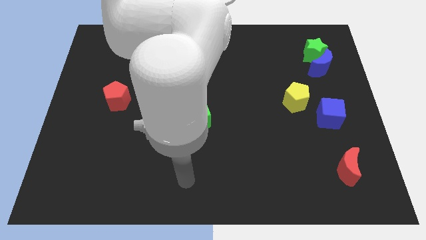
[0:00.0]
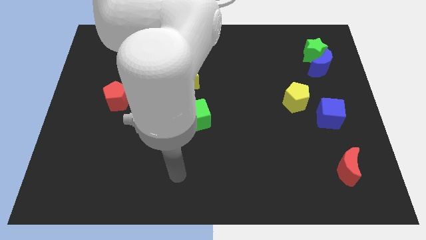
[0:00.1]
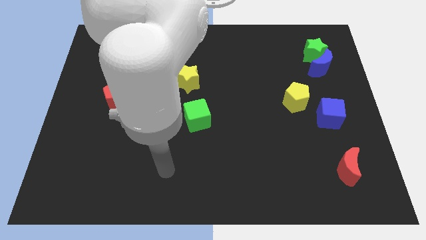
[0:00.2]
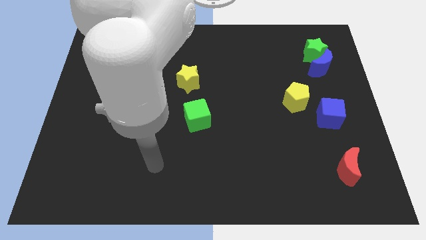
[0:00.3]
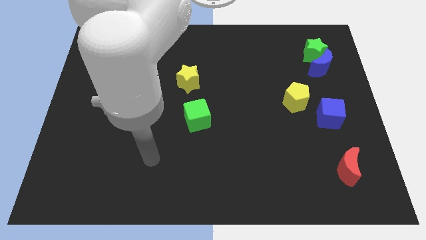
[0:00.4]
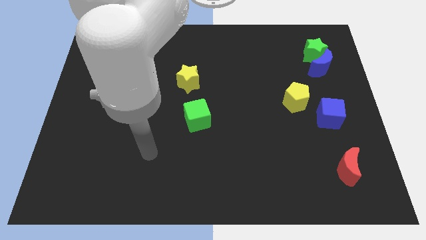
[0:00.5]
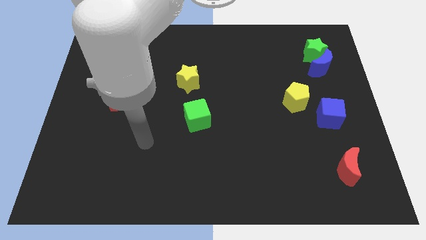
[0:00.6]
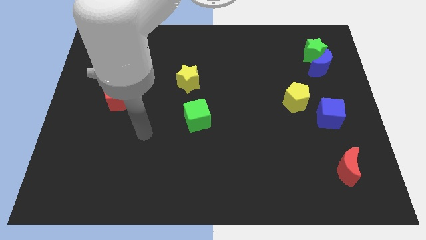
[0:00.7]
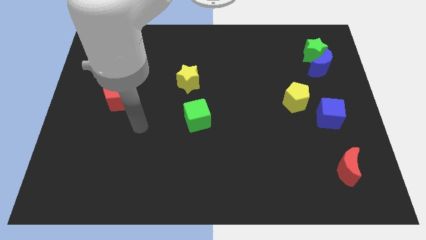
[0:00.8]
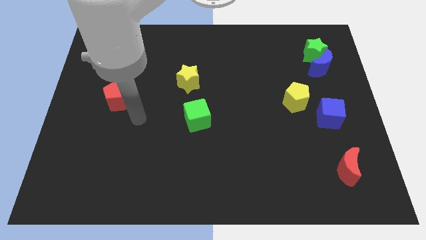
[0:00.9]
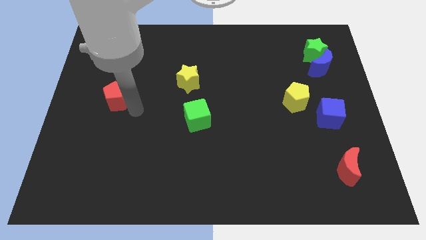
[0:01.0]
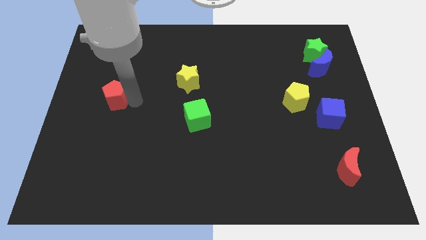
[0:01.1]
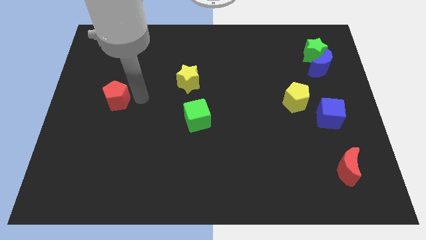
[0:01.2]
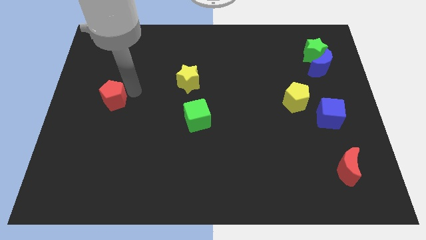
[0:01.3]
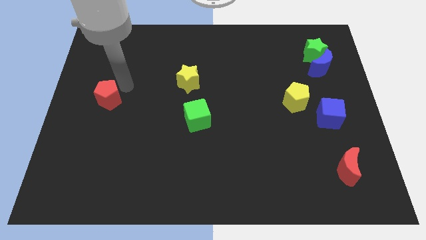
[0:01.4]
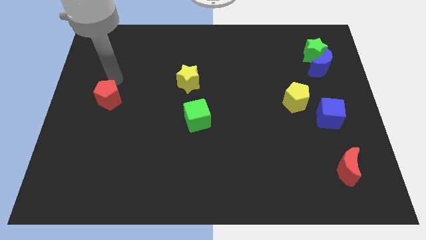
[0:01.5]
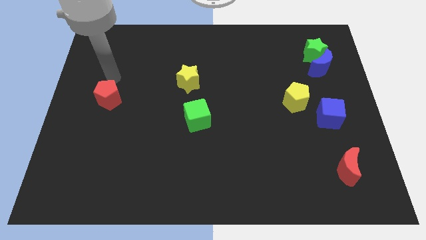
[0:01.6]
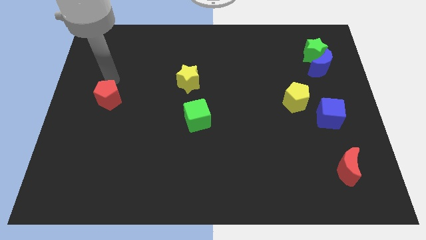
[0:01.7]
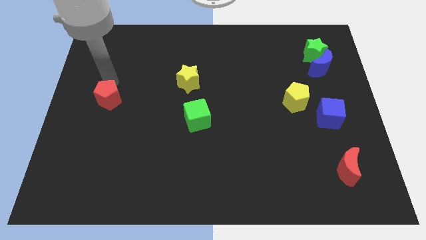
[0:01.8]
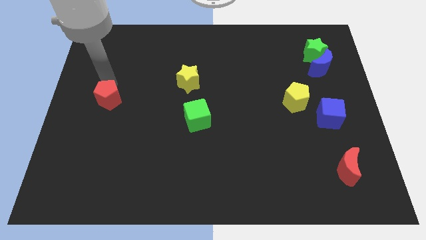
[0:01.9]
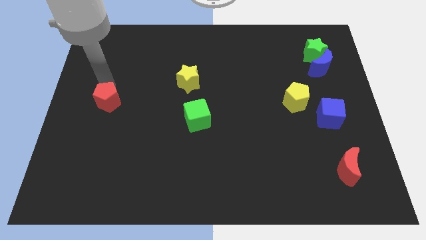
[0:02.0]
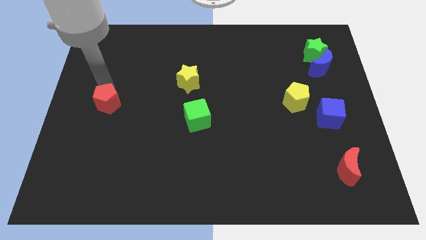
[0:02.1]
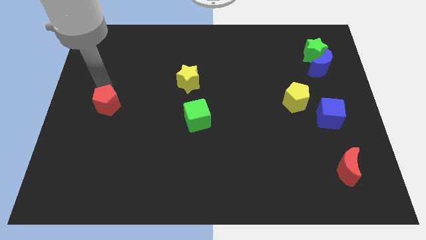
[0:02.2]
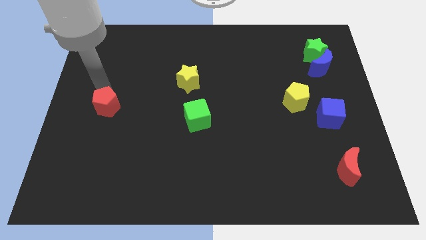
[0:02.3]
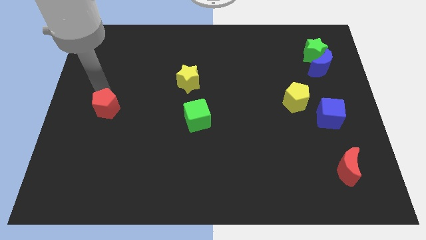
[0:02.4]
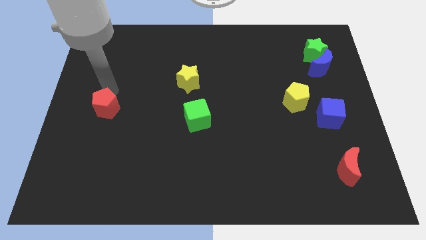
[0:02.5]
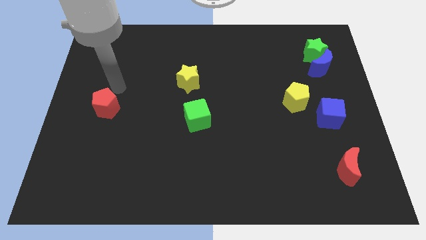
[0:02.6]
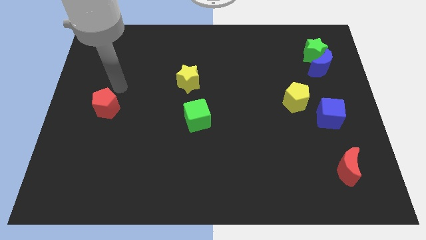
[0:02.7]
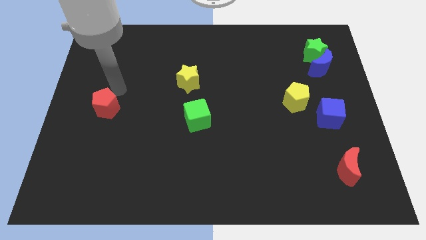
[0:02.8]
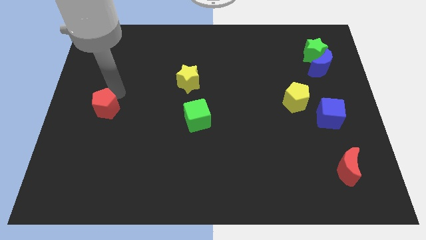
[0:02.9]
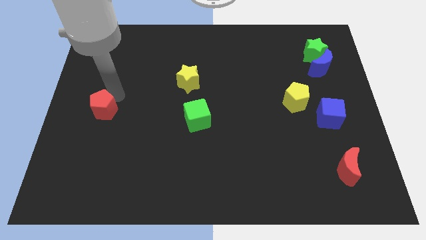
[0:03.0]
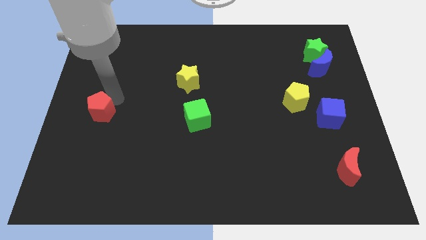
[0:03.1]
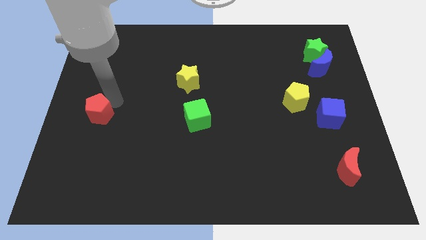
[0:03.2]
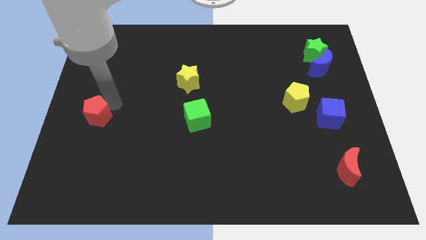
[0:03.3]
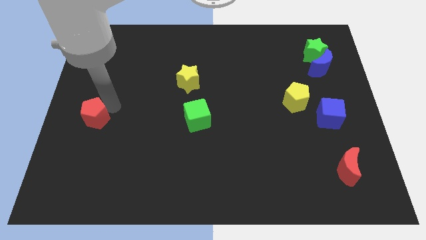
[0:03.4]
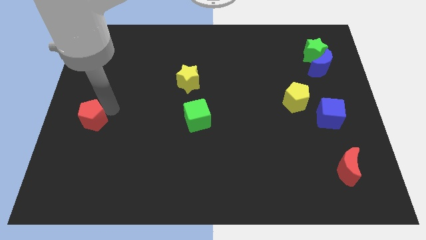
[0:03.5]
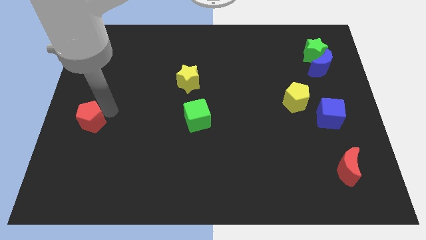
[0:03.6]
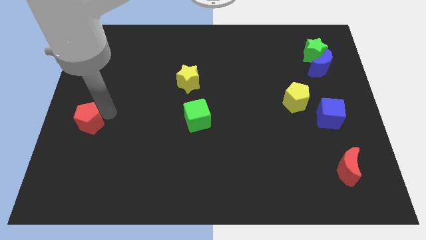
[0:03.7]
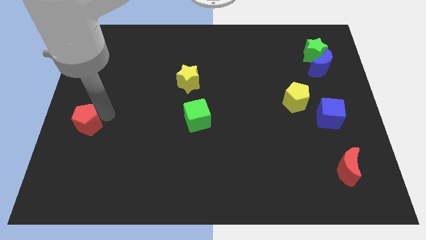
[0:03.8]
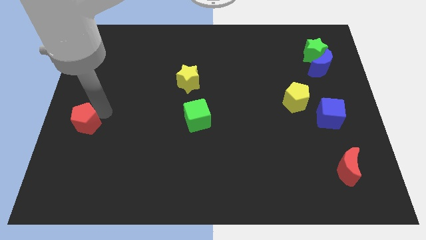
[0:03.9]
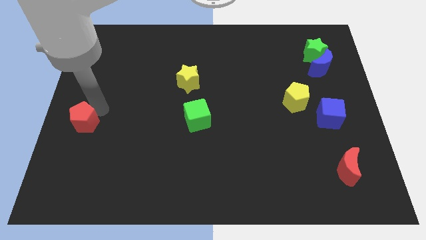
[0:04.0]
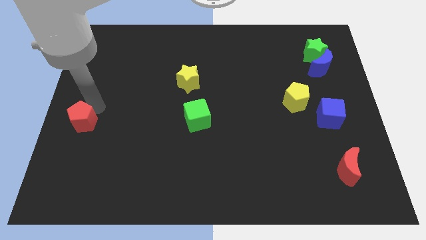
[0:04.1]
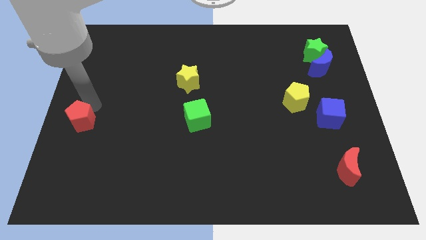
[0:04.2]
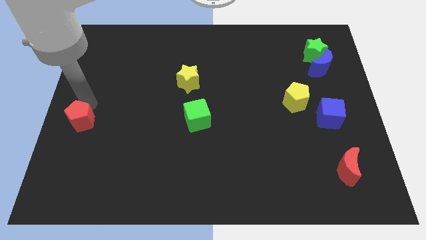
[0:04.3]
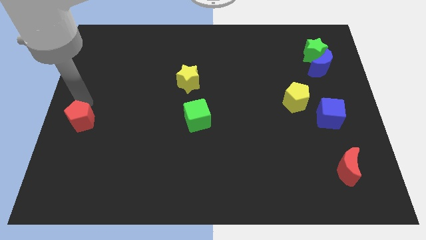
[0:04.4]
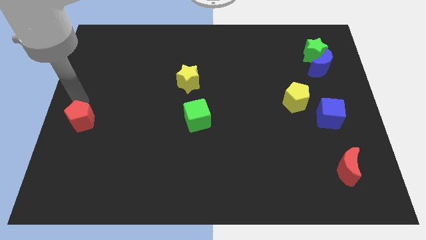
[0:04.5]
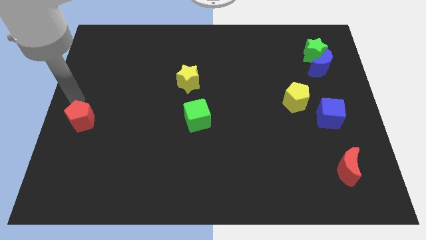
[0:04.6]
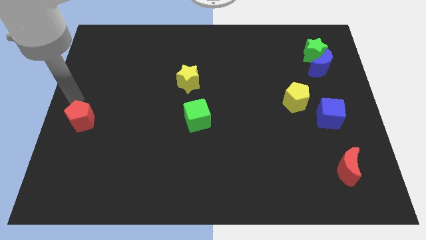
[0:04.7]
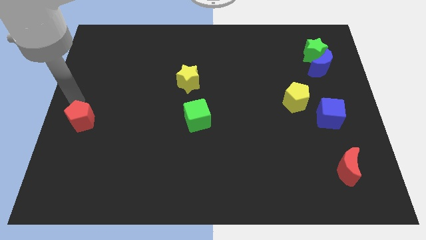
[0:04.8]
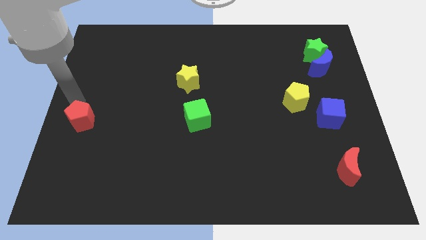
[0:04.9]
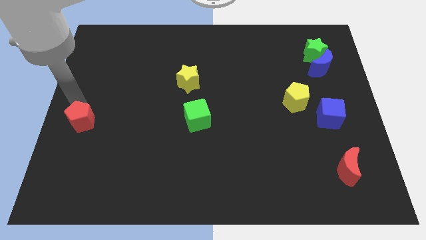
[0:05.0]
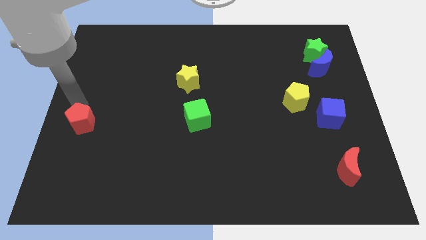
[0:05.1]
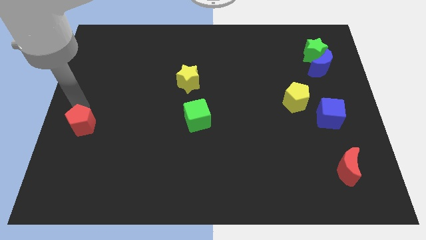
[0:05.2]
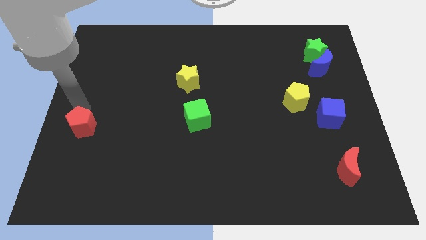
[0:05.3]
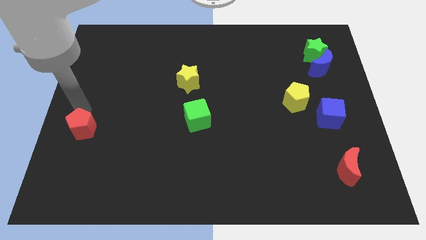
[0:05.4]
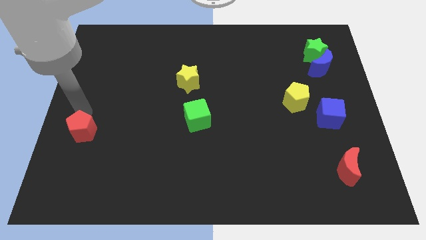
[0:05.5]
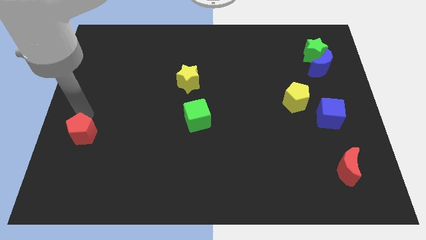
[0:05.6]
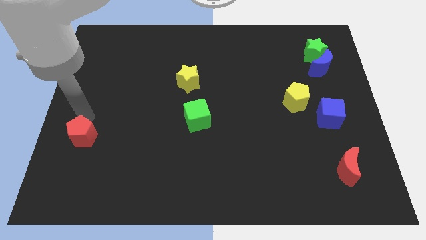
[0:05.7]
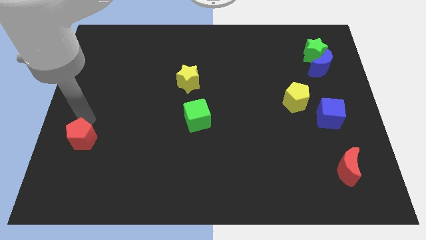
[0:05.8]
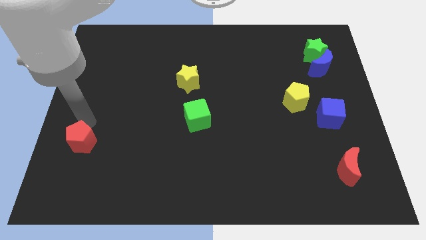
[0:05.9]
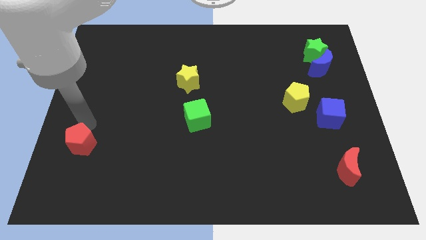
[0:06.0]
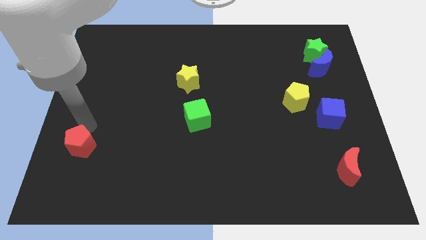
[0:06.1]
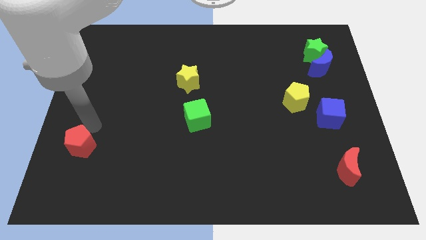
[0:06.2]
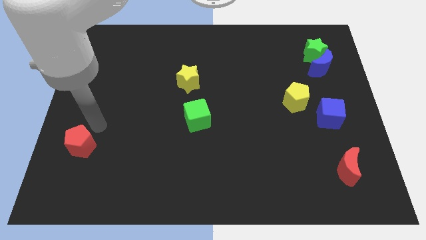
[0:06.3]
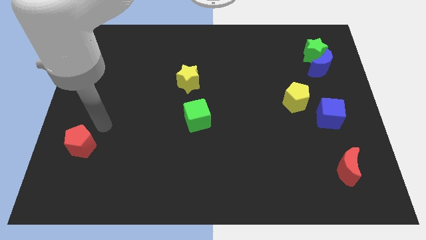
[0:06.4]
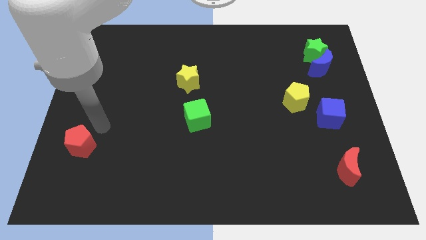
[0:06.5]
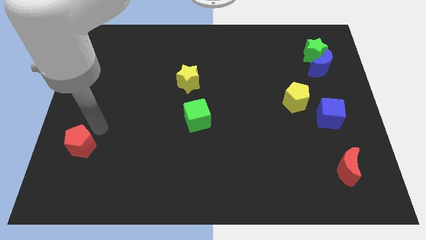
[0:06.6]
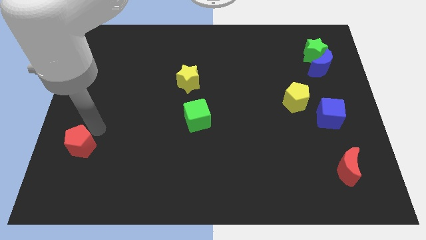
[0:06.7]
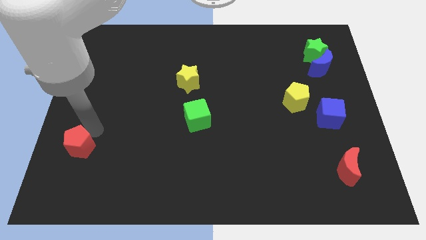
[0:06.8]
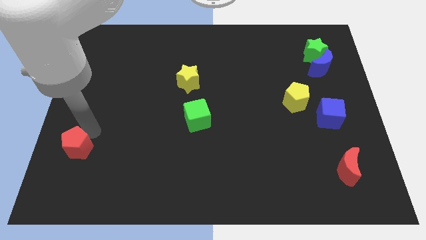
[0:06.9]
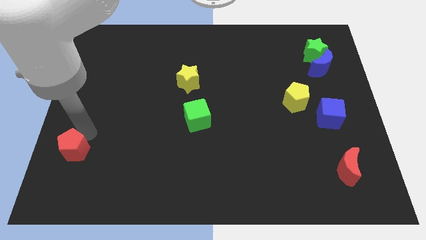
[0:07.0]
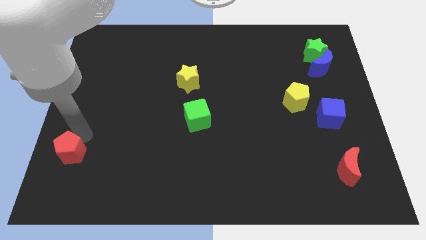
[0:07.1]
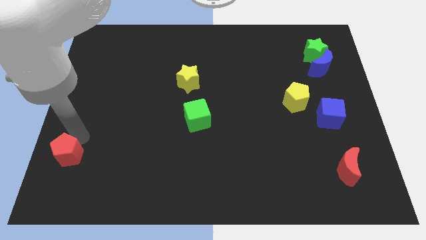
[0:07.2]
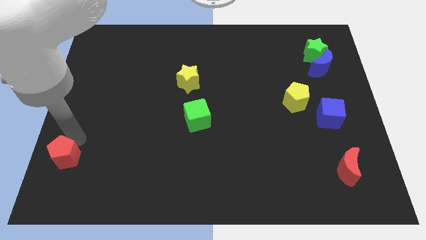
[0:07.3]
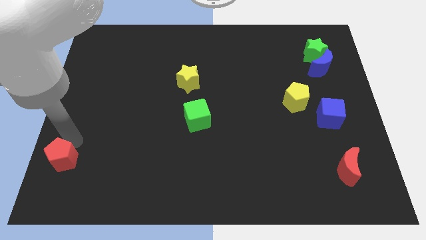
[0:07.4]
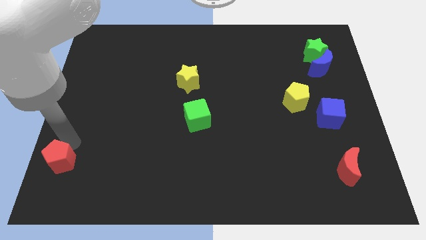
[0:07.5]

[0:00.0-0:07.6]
push the red pentagon to the bottom left
